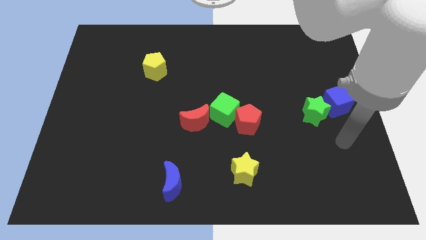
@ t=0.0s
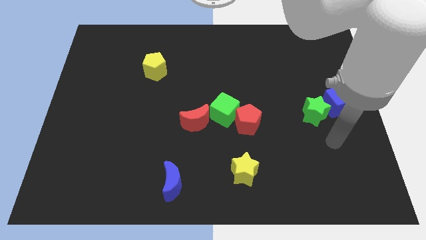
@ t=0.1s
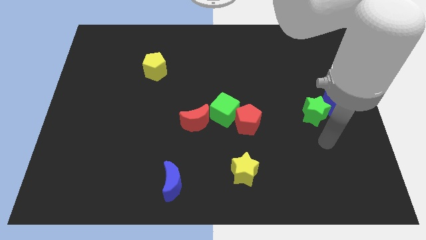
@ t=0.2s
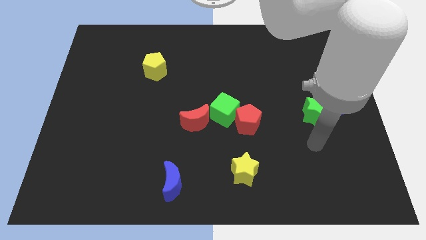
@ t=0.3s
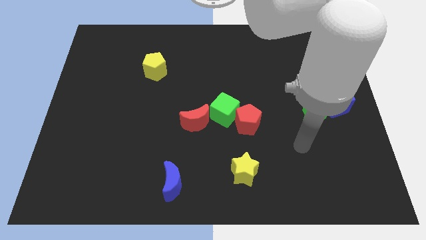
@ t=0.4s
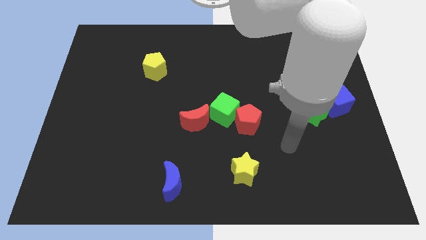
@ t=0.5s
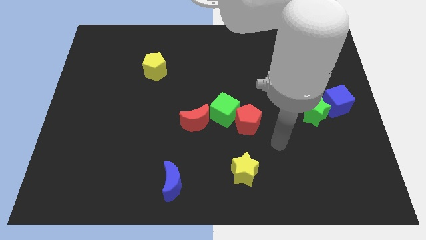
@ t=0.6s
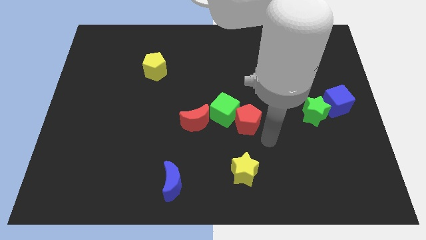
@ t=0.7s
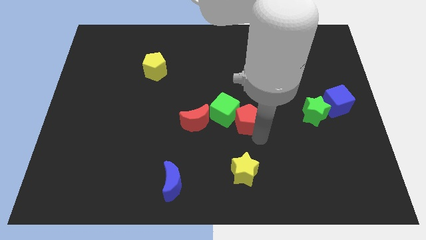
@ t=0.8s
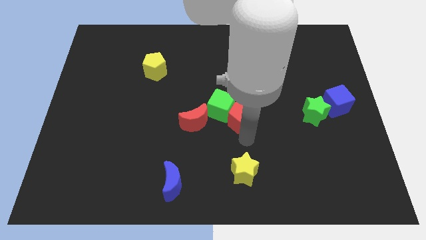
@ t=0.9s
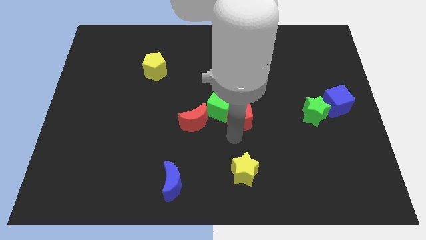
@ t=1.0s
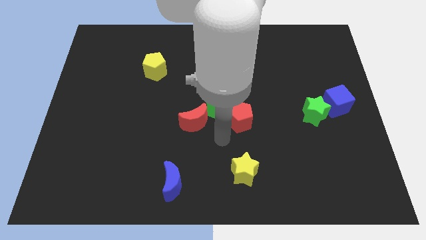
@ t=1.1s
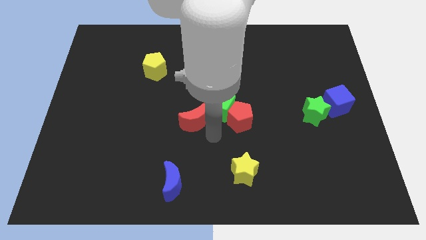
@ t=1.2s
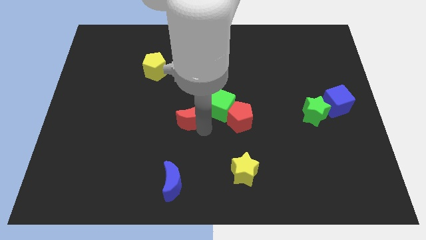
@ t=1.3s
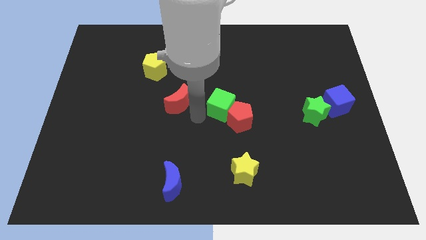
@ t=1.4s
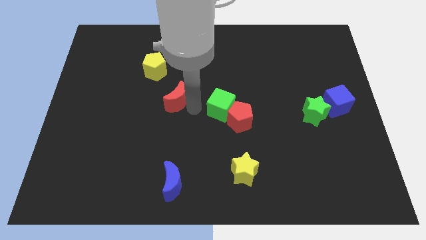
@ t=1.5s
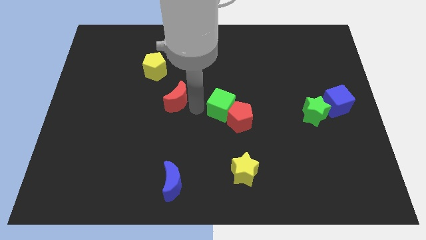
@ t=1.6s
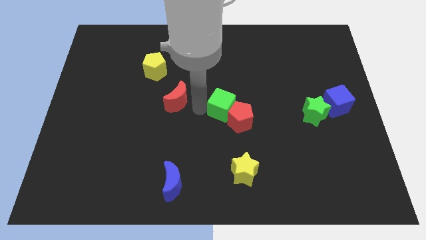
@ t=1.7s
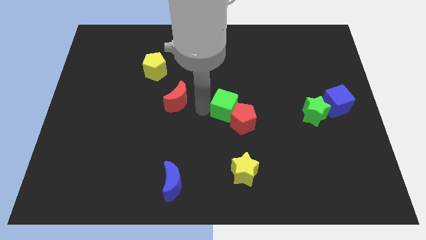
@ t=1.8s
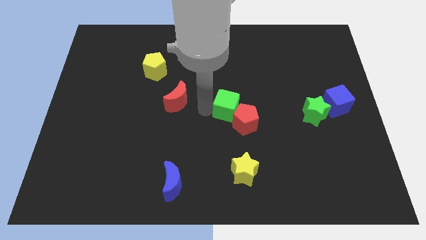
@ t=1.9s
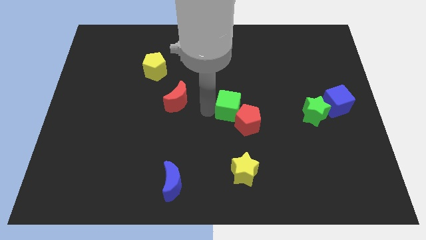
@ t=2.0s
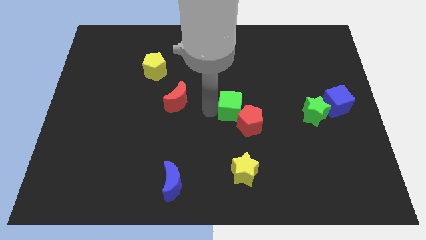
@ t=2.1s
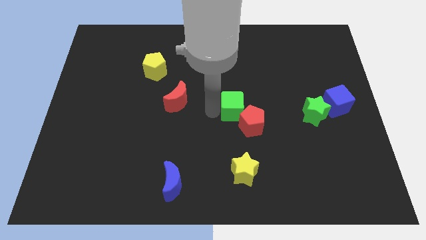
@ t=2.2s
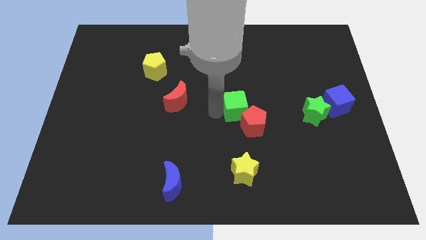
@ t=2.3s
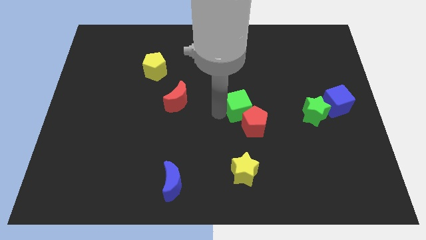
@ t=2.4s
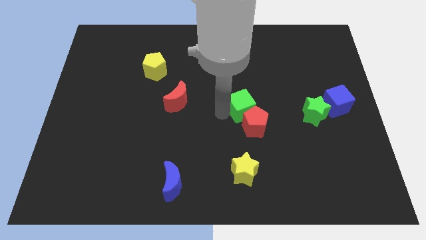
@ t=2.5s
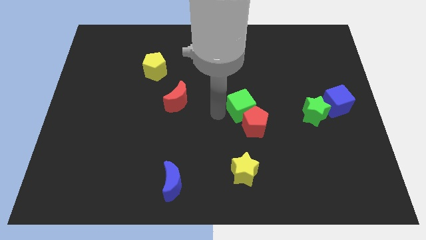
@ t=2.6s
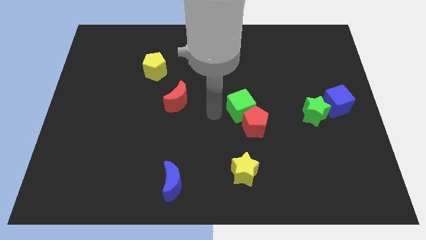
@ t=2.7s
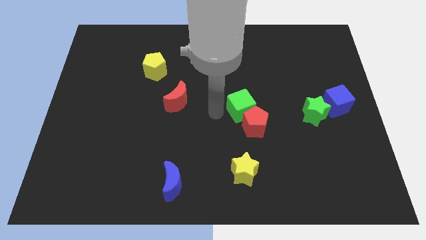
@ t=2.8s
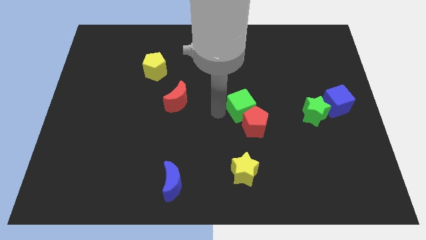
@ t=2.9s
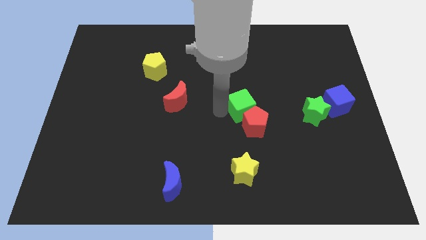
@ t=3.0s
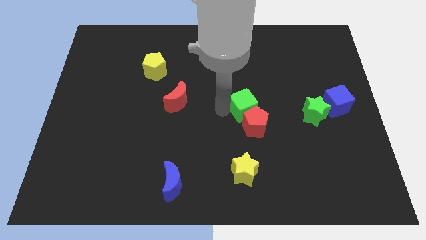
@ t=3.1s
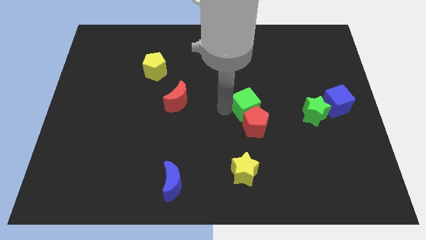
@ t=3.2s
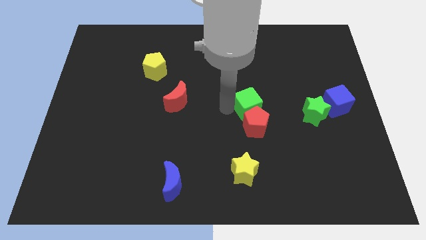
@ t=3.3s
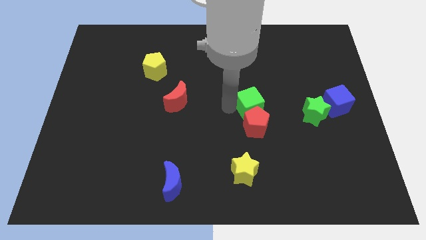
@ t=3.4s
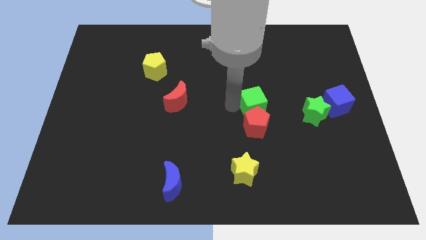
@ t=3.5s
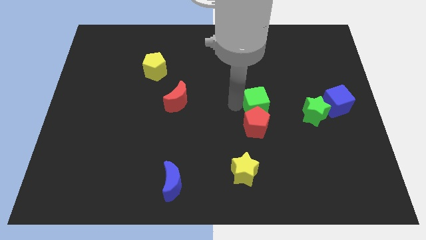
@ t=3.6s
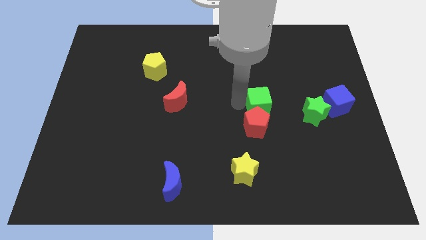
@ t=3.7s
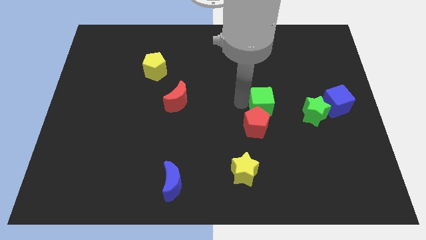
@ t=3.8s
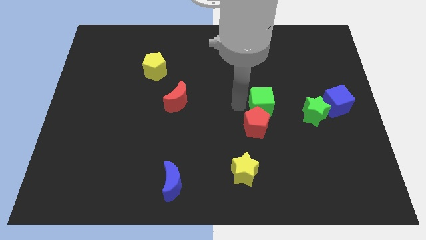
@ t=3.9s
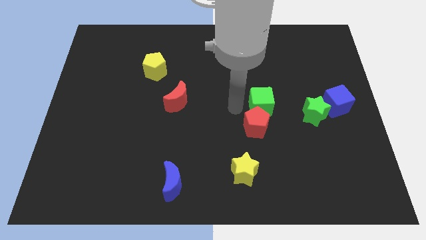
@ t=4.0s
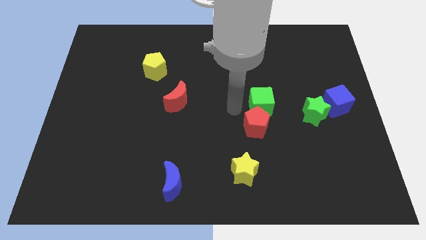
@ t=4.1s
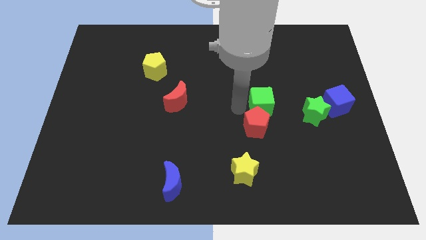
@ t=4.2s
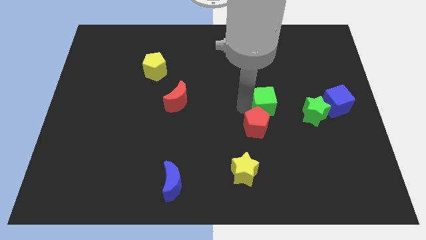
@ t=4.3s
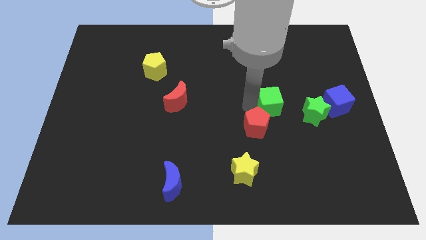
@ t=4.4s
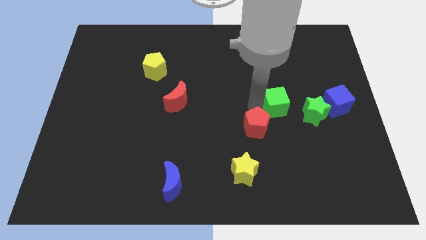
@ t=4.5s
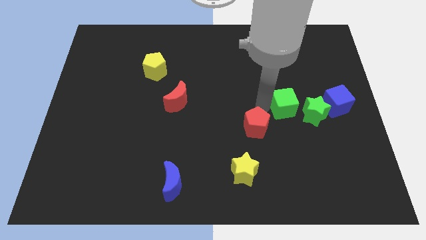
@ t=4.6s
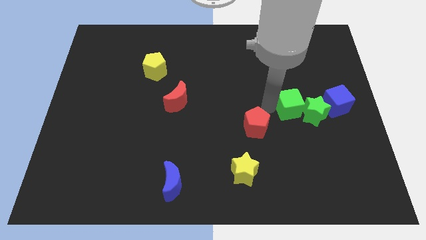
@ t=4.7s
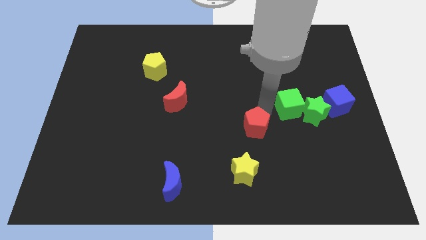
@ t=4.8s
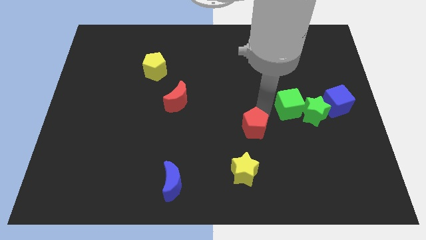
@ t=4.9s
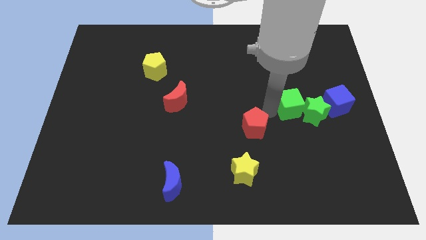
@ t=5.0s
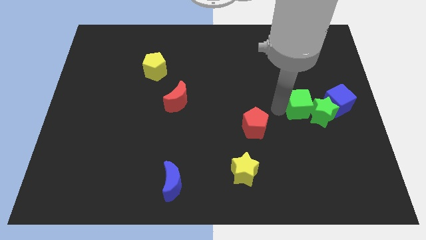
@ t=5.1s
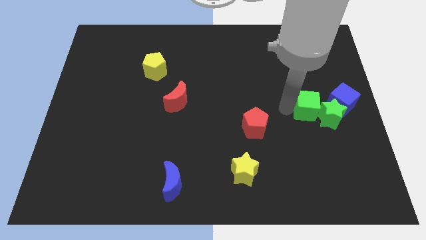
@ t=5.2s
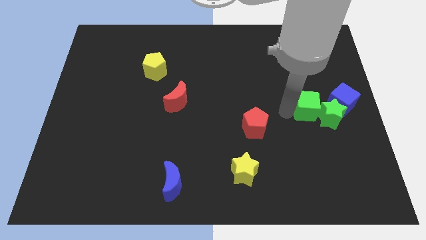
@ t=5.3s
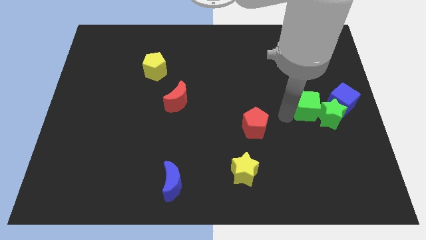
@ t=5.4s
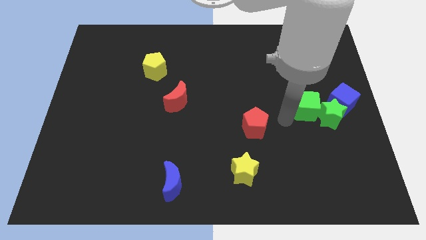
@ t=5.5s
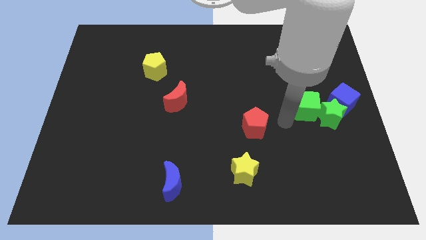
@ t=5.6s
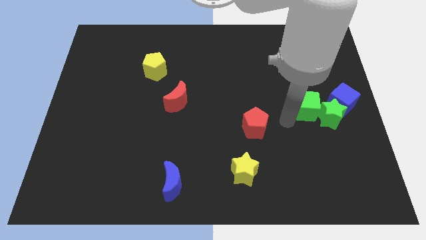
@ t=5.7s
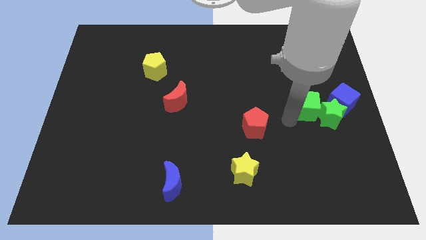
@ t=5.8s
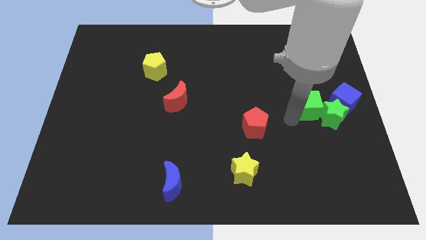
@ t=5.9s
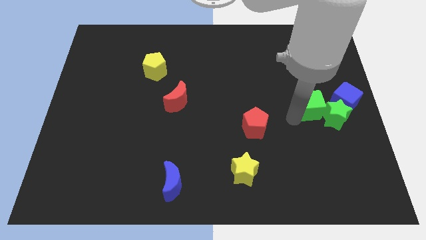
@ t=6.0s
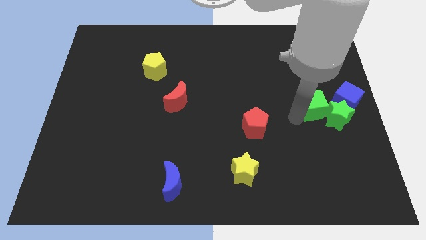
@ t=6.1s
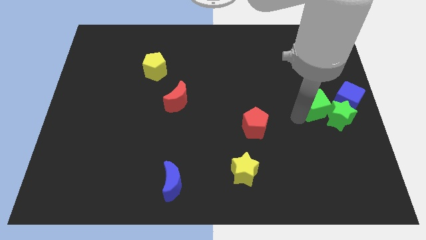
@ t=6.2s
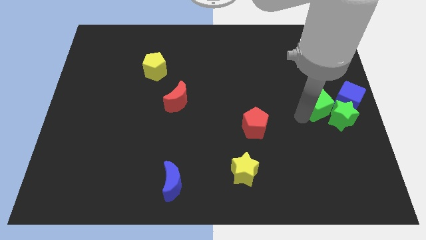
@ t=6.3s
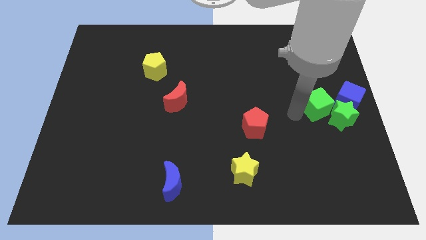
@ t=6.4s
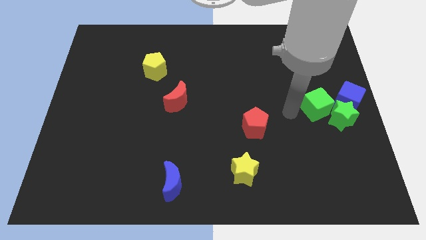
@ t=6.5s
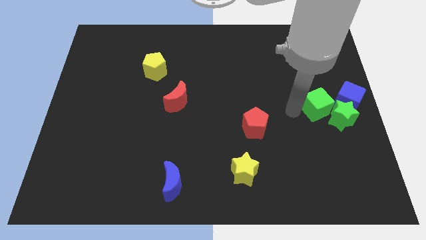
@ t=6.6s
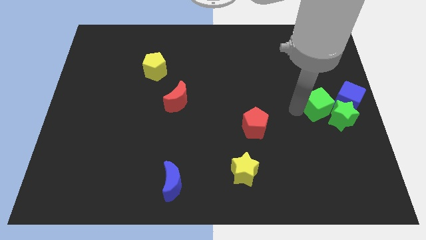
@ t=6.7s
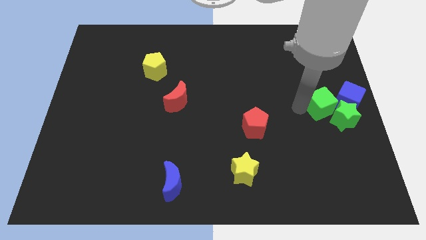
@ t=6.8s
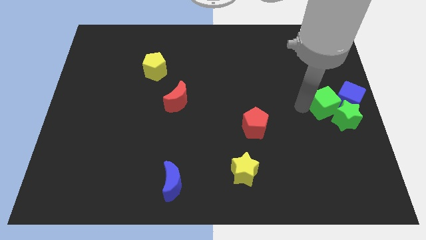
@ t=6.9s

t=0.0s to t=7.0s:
push the green cube towards the blue cube

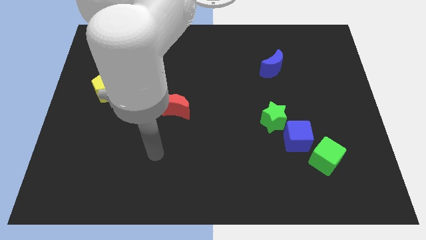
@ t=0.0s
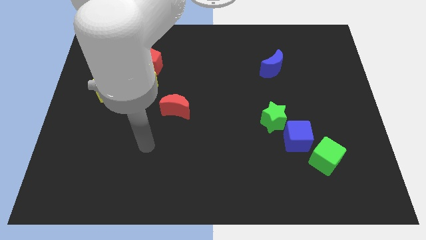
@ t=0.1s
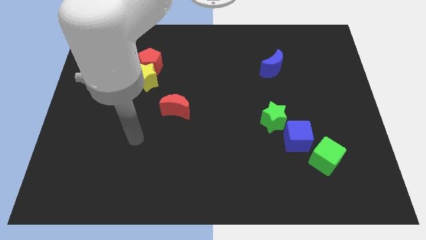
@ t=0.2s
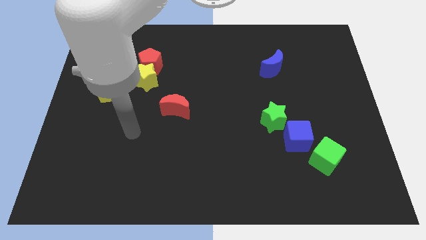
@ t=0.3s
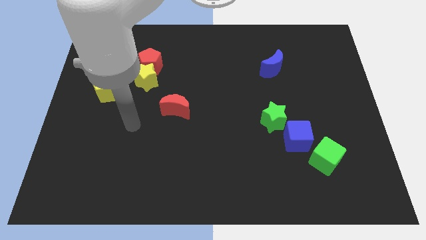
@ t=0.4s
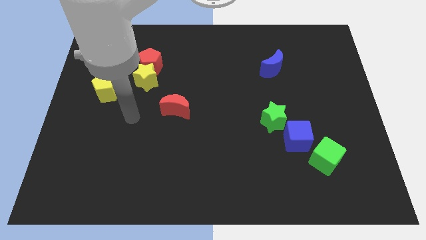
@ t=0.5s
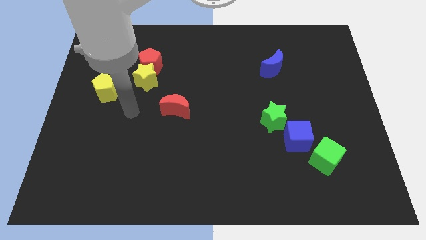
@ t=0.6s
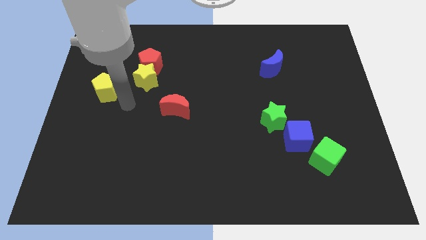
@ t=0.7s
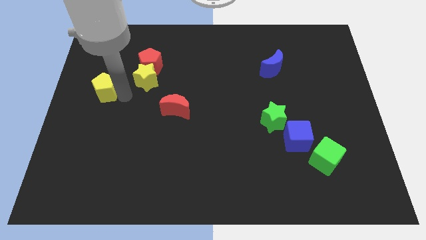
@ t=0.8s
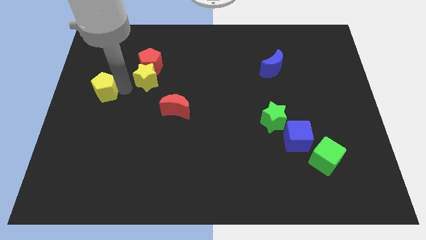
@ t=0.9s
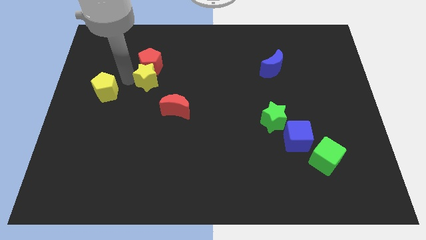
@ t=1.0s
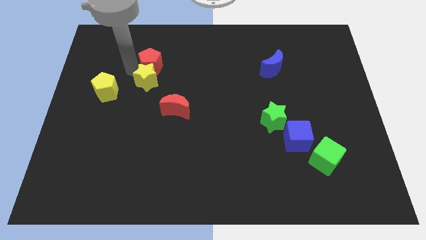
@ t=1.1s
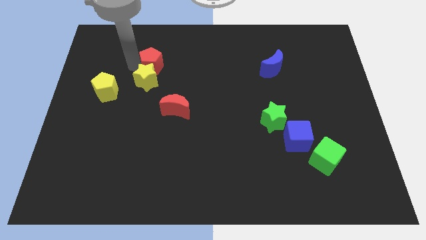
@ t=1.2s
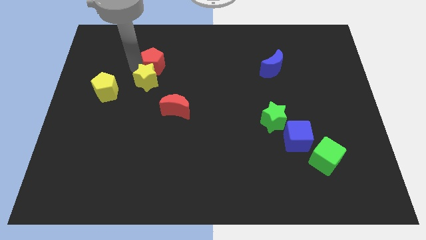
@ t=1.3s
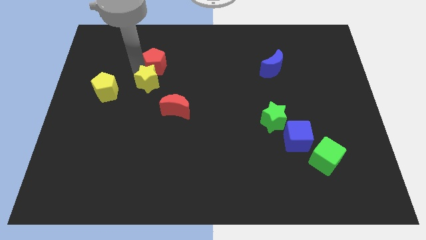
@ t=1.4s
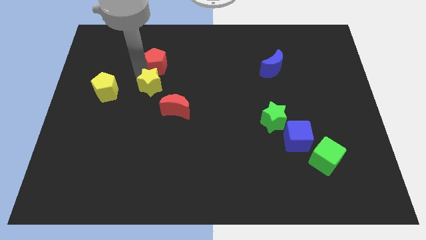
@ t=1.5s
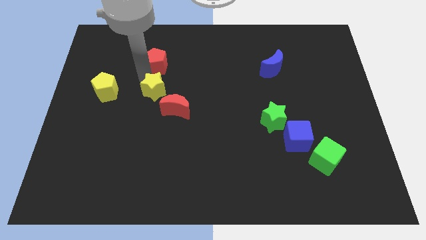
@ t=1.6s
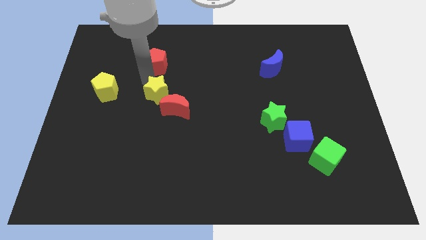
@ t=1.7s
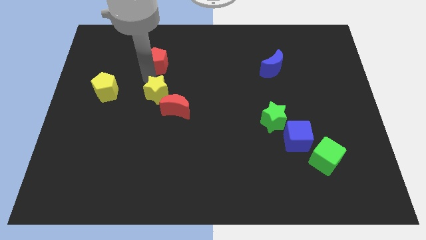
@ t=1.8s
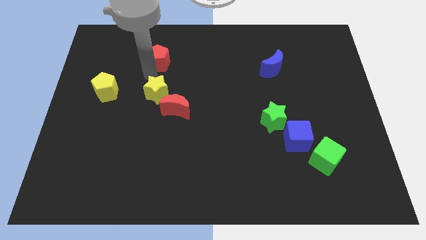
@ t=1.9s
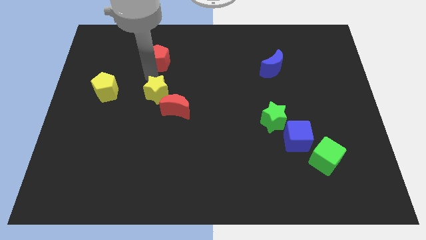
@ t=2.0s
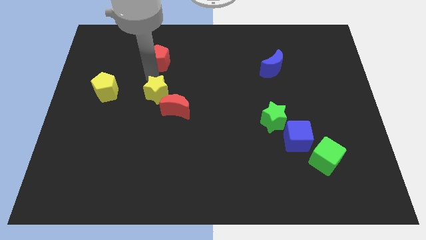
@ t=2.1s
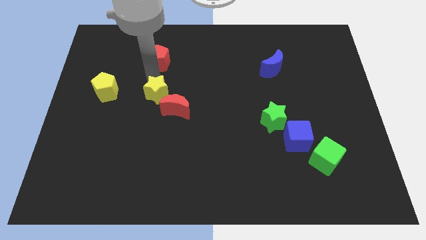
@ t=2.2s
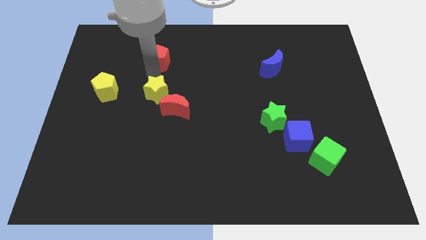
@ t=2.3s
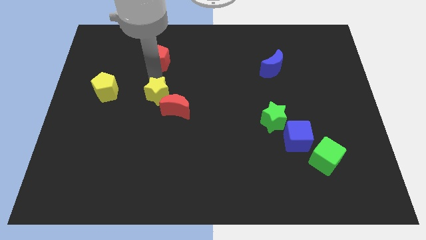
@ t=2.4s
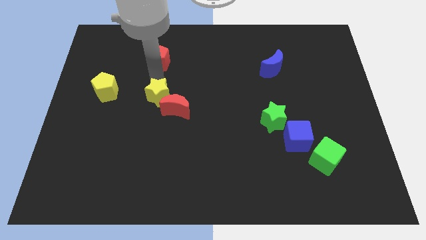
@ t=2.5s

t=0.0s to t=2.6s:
put the yellow star towards the red moon
